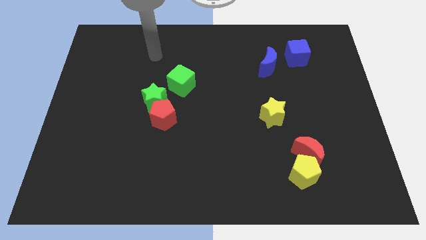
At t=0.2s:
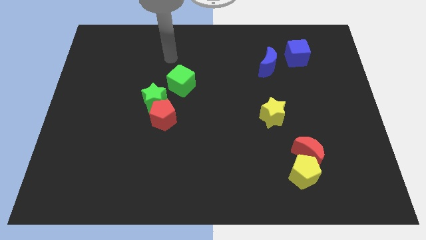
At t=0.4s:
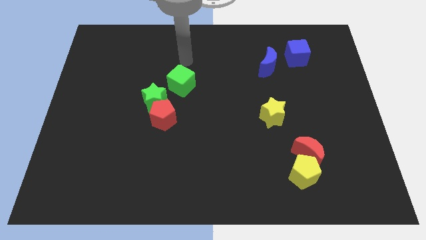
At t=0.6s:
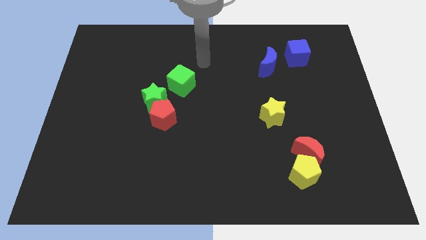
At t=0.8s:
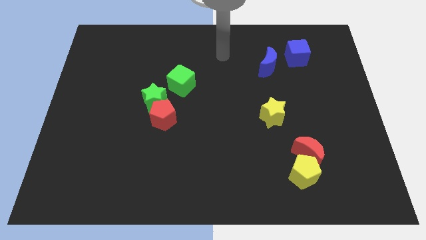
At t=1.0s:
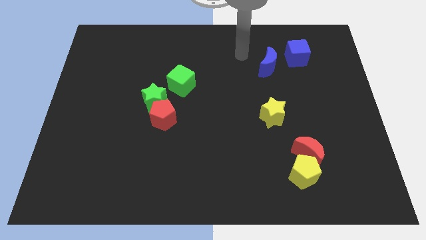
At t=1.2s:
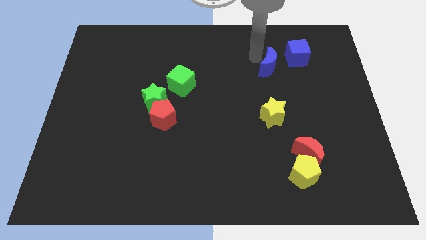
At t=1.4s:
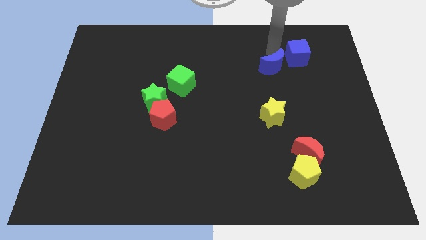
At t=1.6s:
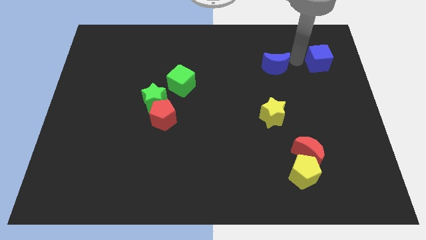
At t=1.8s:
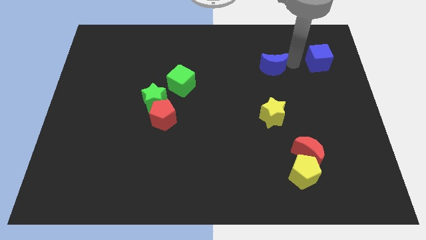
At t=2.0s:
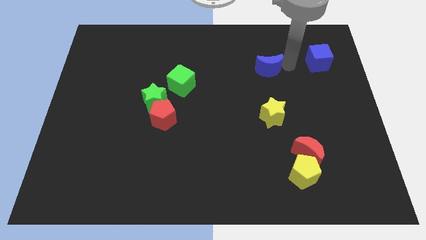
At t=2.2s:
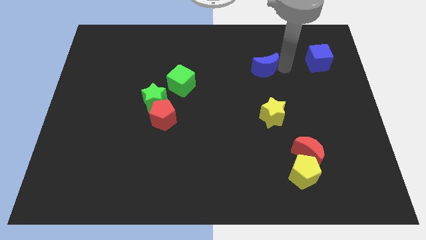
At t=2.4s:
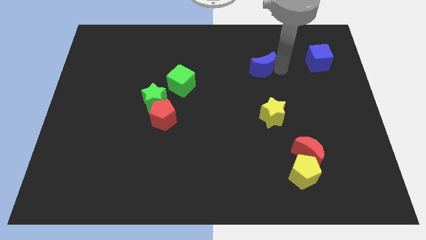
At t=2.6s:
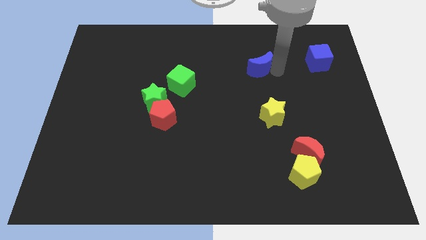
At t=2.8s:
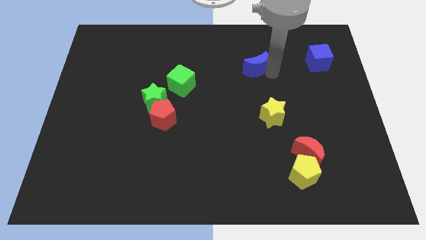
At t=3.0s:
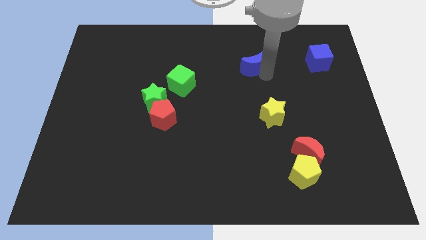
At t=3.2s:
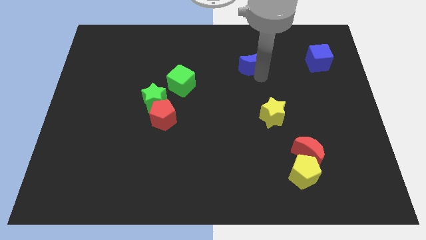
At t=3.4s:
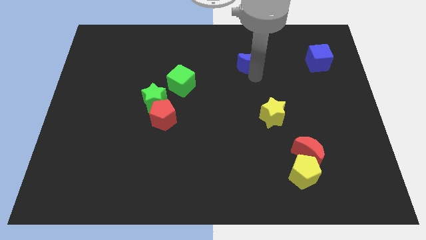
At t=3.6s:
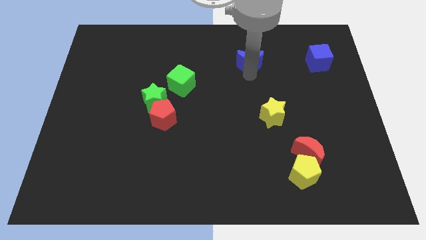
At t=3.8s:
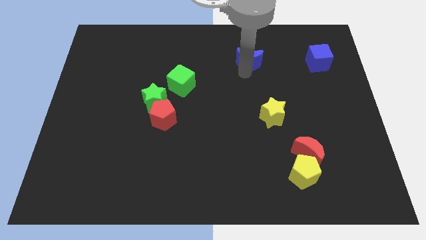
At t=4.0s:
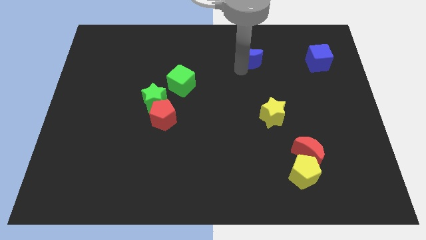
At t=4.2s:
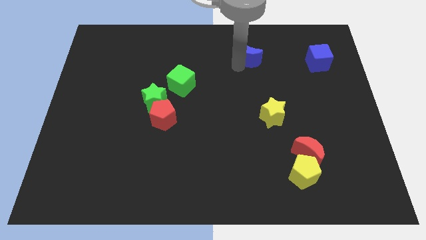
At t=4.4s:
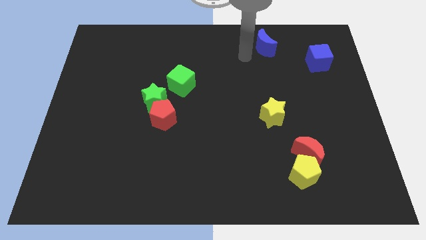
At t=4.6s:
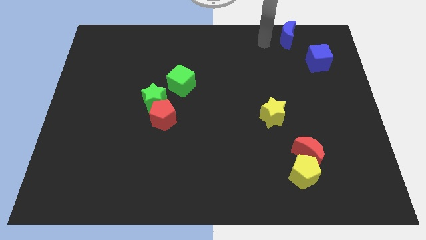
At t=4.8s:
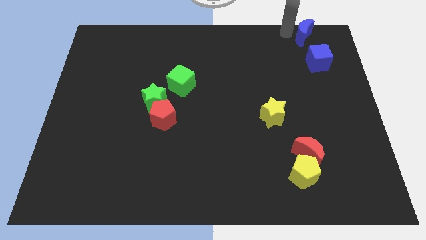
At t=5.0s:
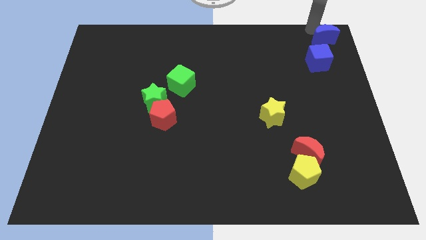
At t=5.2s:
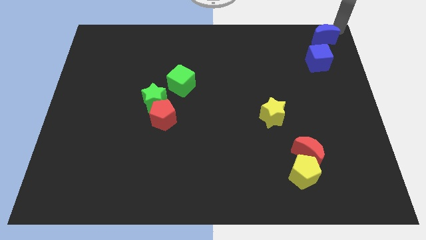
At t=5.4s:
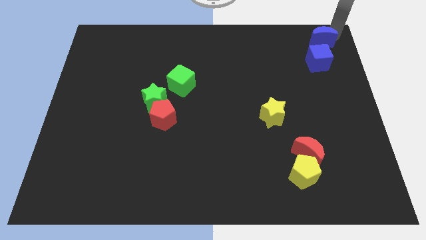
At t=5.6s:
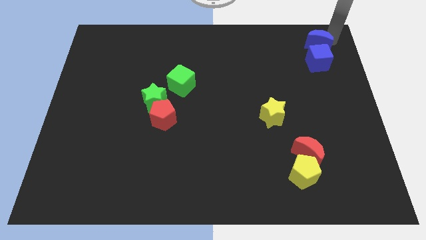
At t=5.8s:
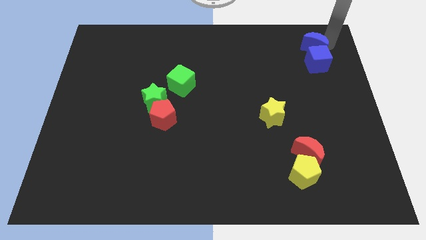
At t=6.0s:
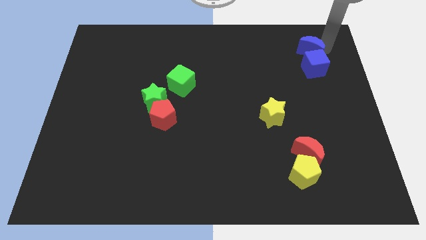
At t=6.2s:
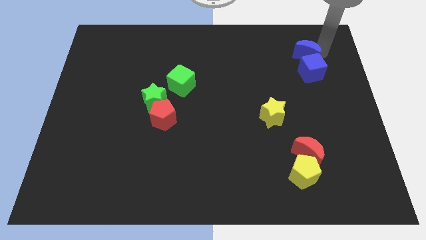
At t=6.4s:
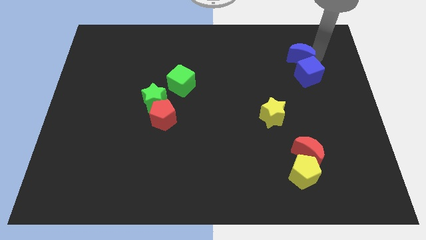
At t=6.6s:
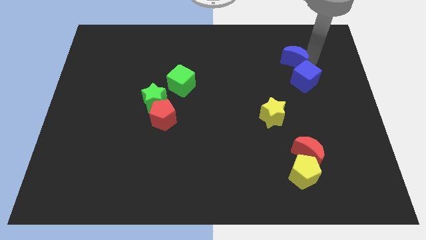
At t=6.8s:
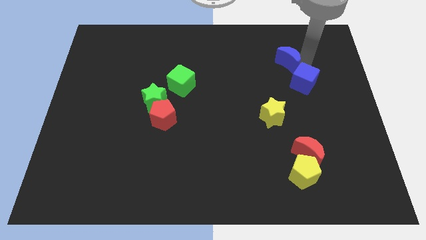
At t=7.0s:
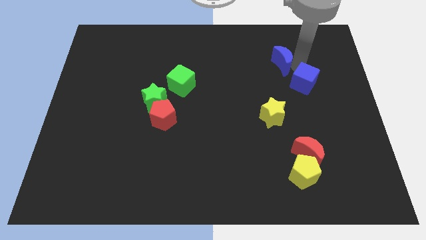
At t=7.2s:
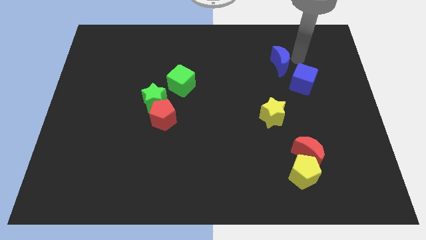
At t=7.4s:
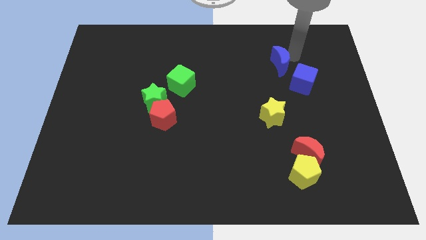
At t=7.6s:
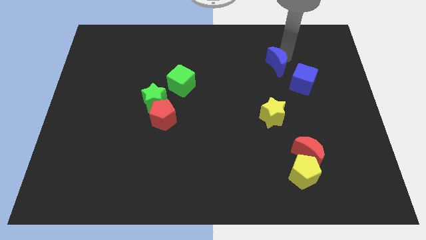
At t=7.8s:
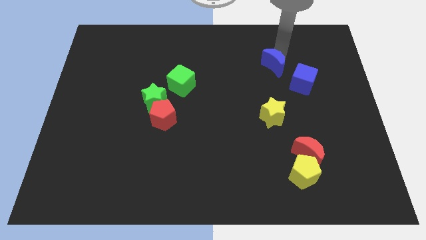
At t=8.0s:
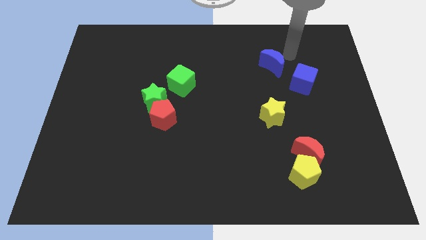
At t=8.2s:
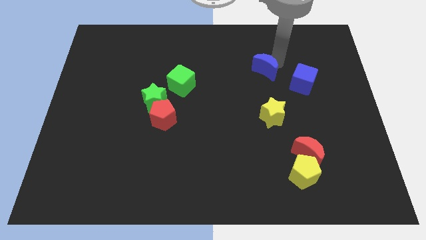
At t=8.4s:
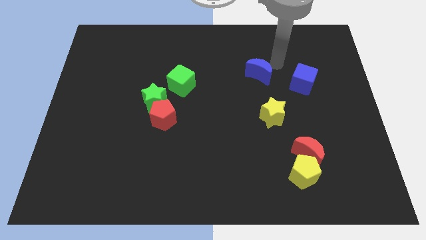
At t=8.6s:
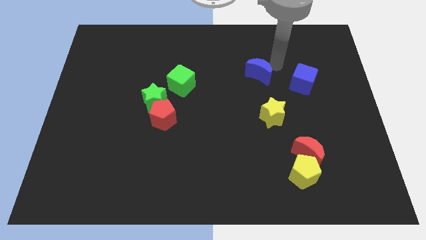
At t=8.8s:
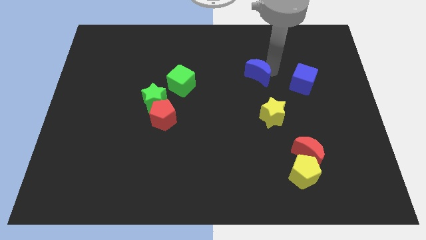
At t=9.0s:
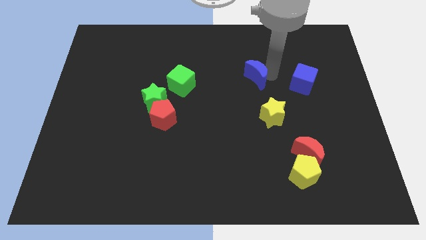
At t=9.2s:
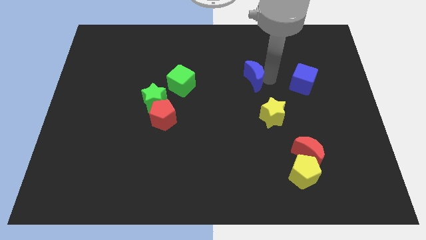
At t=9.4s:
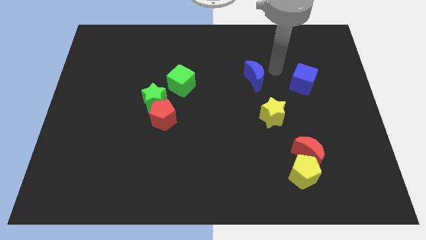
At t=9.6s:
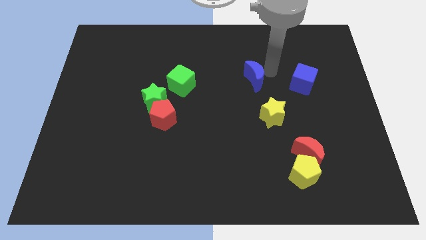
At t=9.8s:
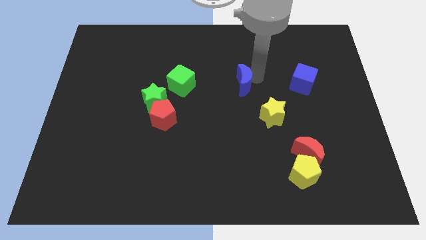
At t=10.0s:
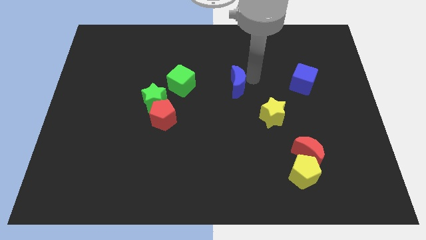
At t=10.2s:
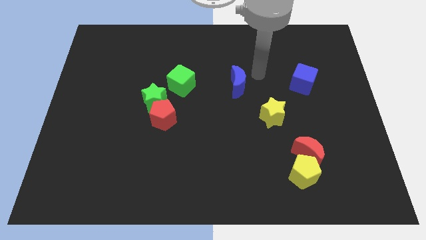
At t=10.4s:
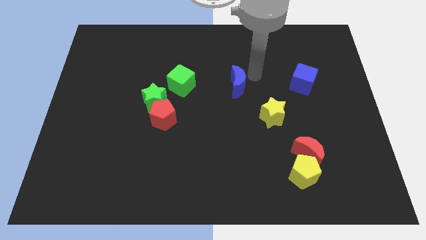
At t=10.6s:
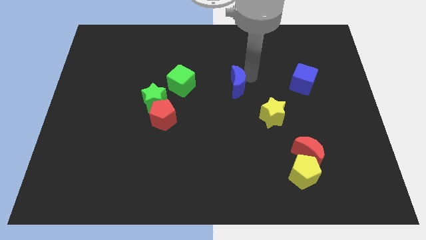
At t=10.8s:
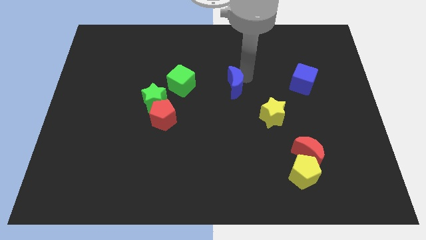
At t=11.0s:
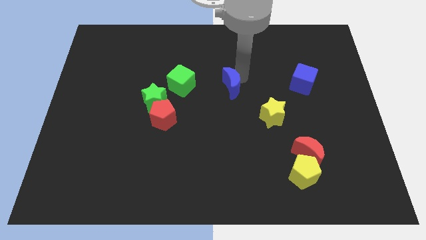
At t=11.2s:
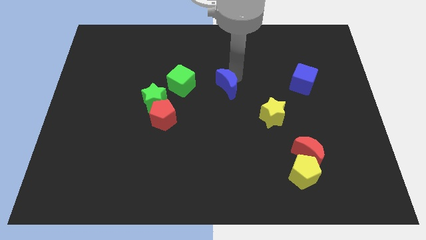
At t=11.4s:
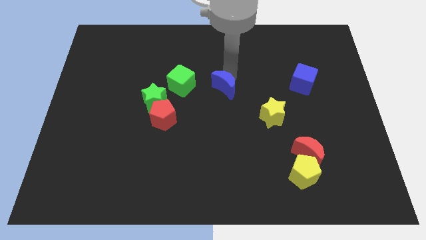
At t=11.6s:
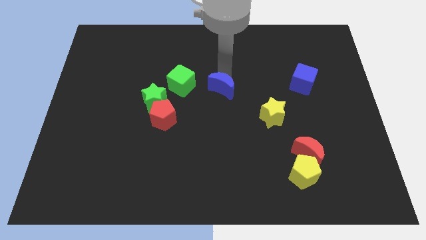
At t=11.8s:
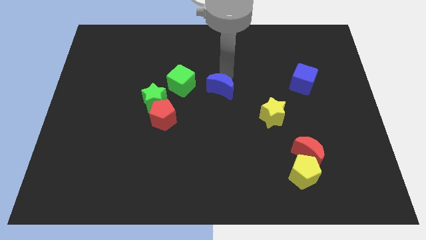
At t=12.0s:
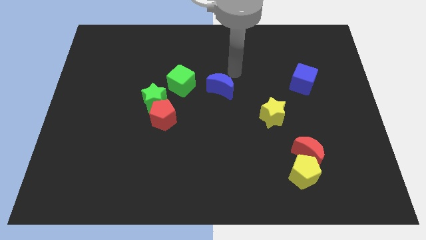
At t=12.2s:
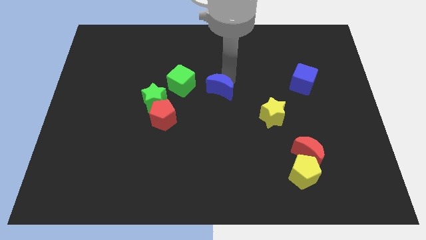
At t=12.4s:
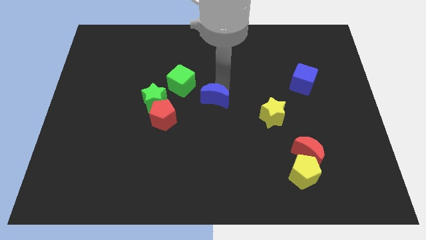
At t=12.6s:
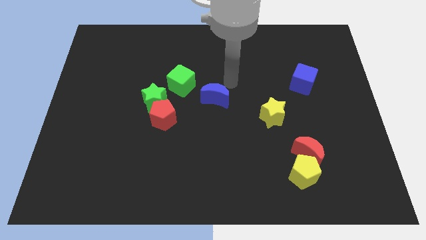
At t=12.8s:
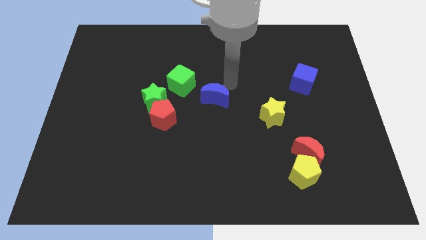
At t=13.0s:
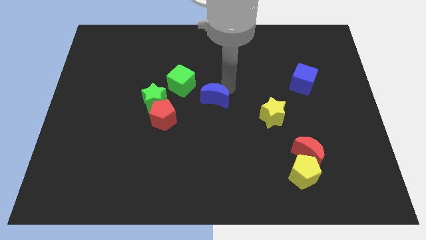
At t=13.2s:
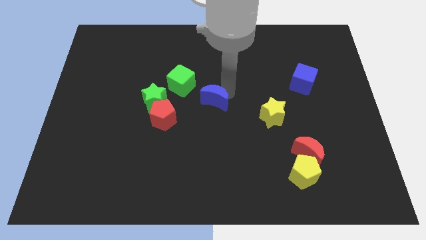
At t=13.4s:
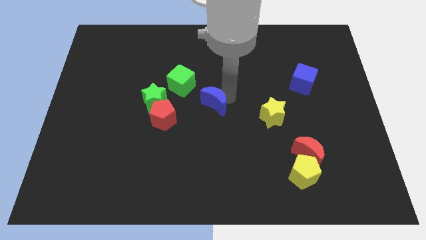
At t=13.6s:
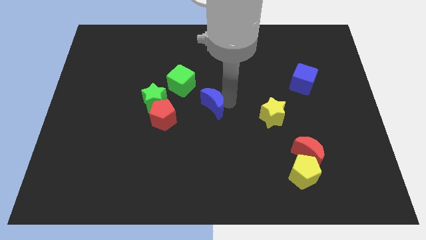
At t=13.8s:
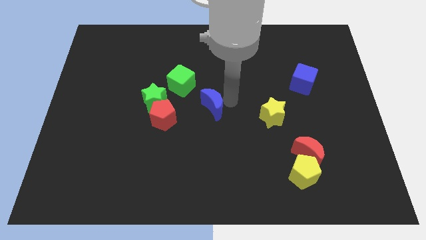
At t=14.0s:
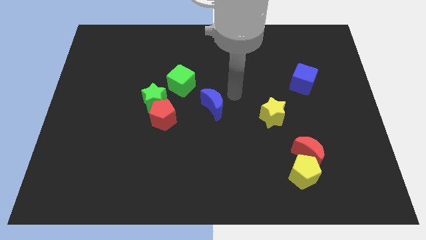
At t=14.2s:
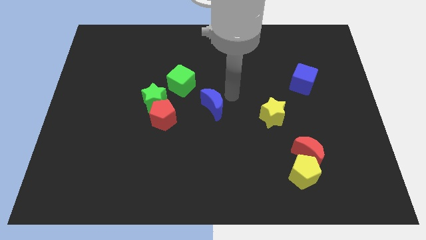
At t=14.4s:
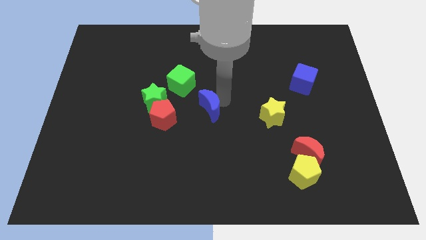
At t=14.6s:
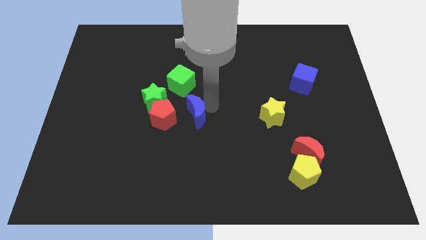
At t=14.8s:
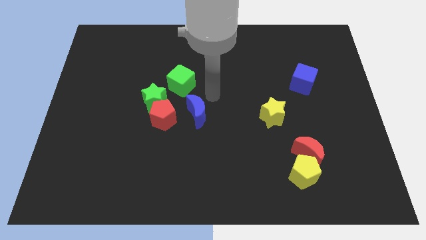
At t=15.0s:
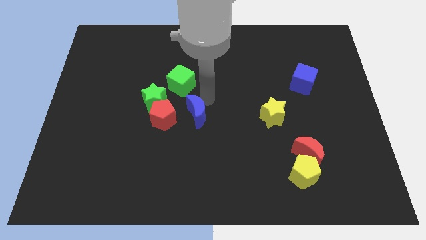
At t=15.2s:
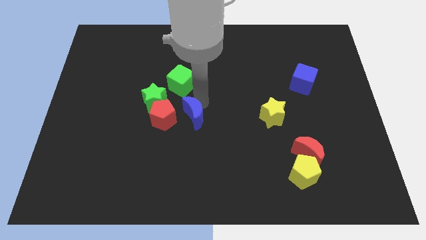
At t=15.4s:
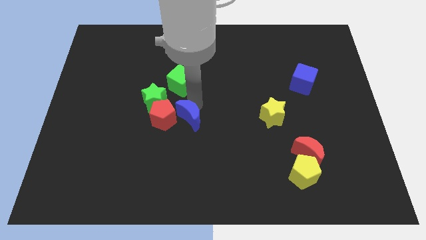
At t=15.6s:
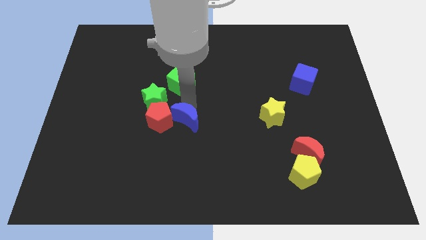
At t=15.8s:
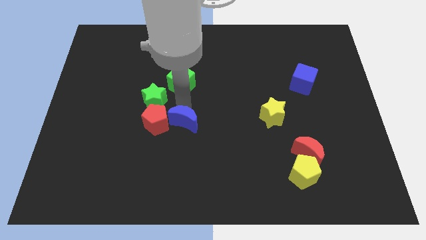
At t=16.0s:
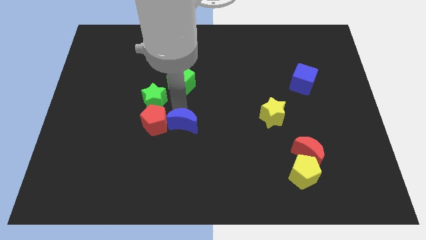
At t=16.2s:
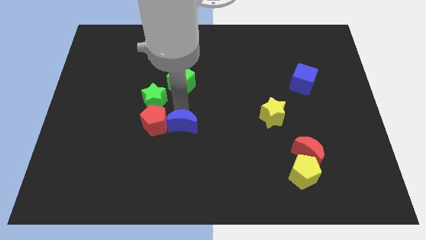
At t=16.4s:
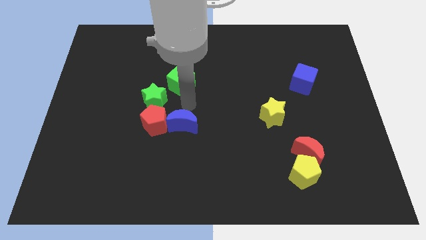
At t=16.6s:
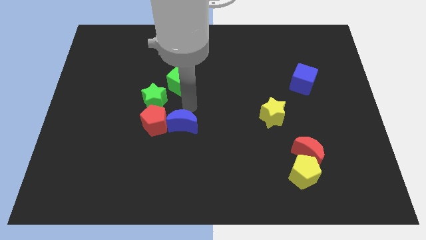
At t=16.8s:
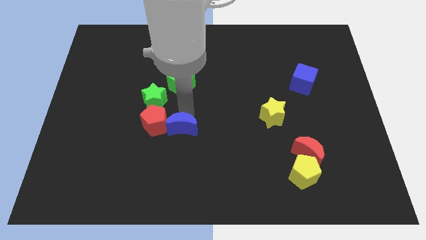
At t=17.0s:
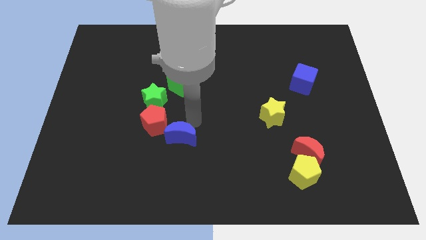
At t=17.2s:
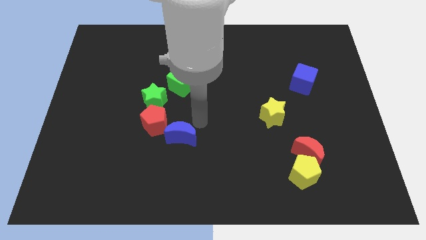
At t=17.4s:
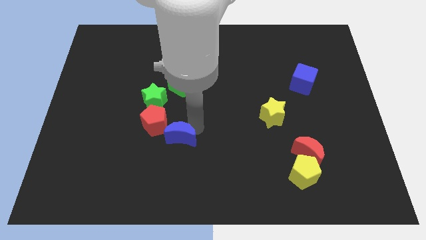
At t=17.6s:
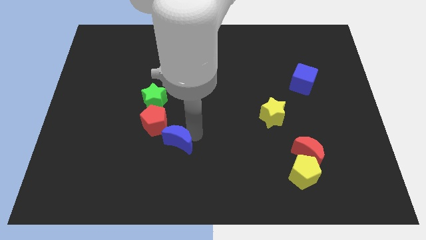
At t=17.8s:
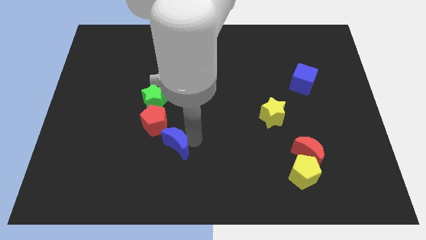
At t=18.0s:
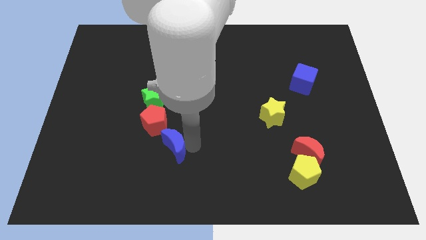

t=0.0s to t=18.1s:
push the blue moon below the red pentagon
